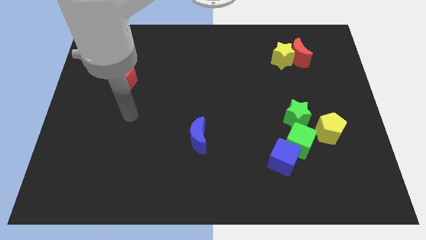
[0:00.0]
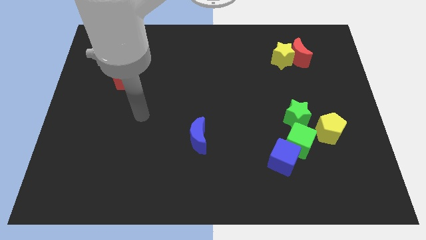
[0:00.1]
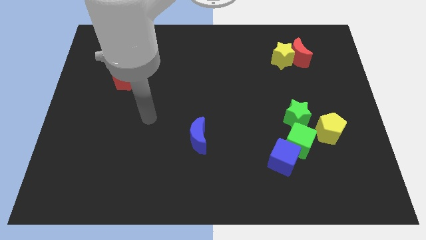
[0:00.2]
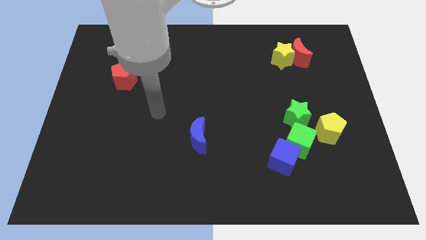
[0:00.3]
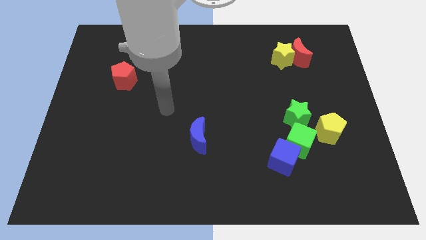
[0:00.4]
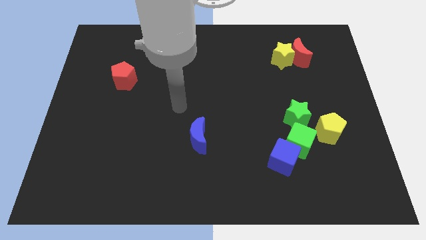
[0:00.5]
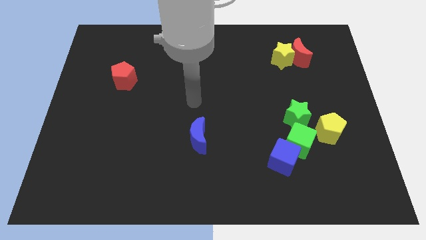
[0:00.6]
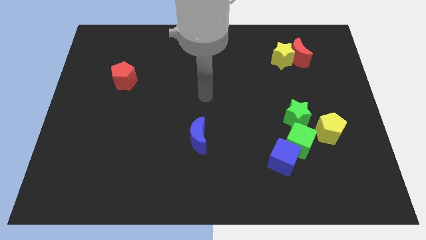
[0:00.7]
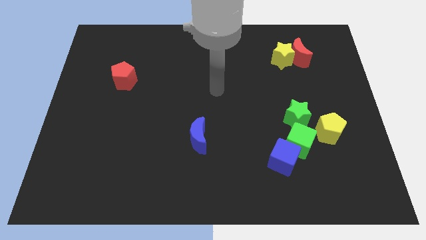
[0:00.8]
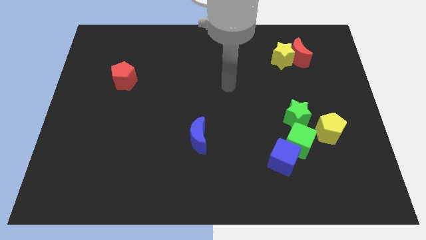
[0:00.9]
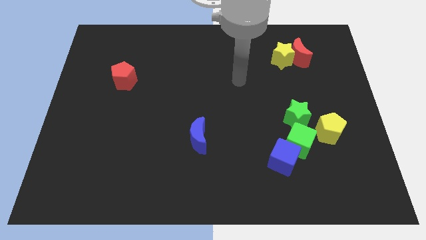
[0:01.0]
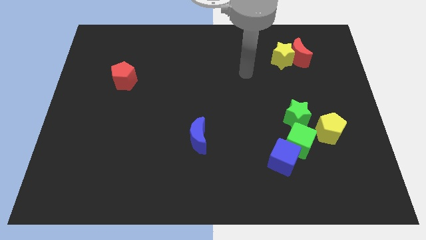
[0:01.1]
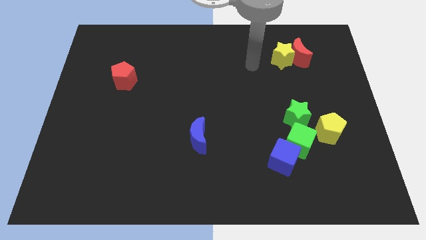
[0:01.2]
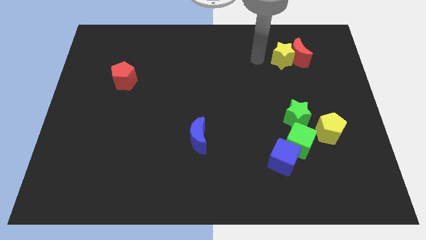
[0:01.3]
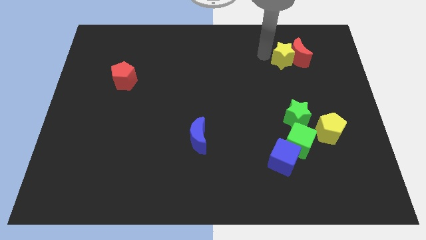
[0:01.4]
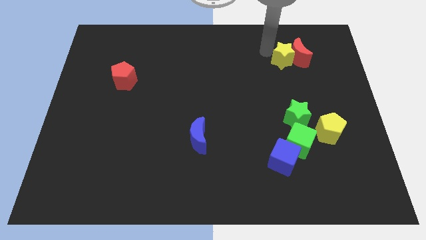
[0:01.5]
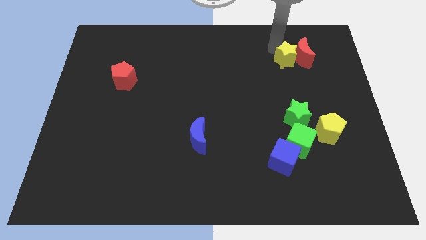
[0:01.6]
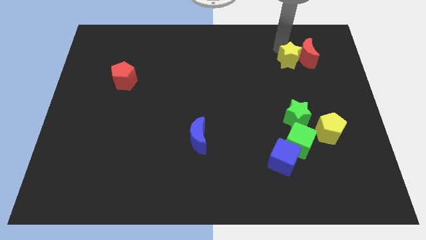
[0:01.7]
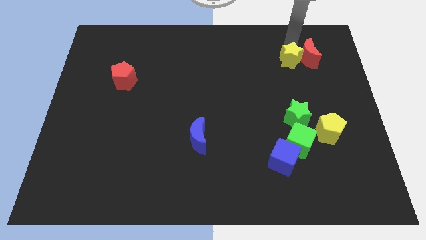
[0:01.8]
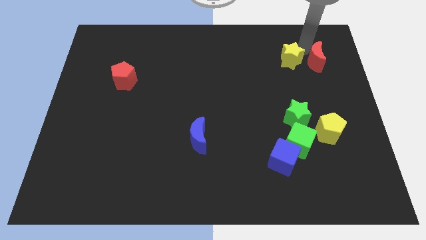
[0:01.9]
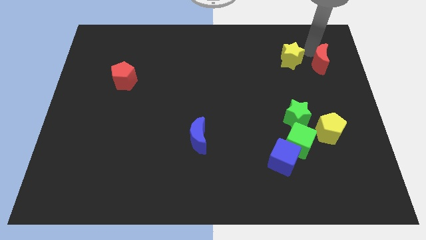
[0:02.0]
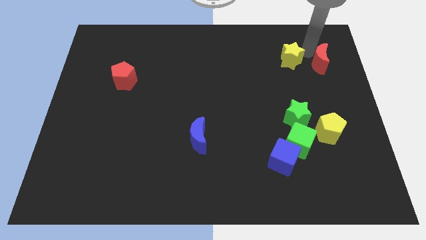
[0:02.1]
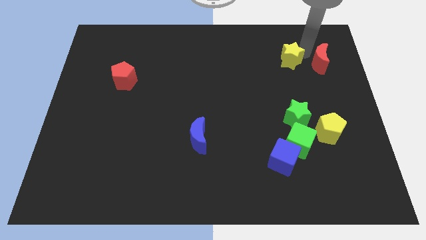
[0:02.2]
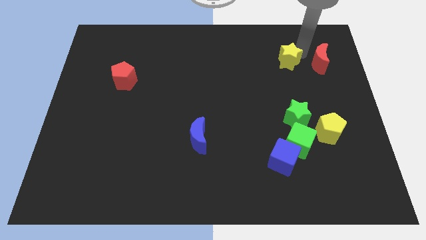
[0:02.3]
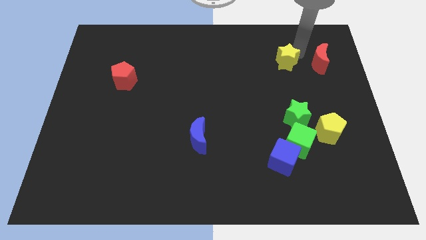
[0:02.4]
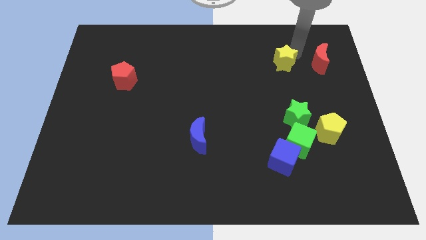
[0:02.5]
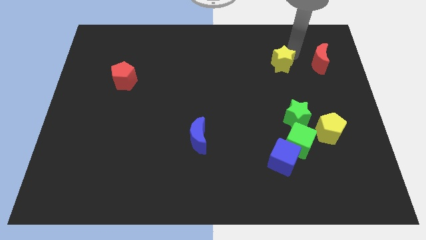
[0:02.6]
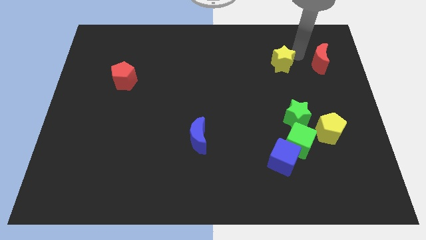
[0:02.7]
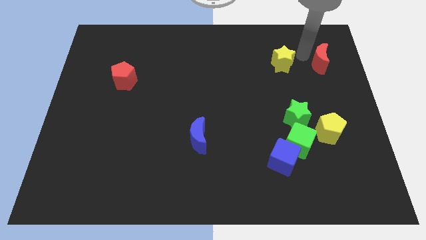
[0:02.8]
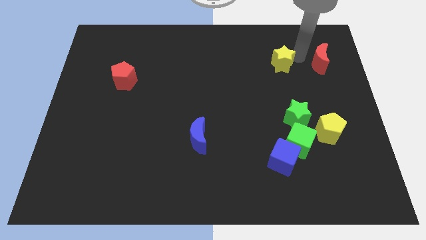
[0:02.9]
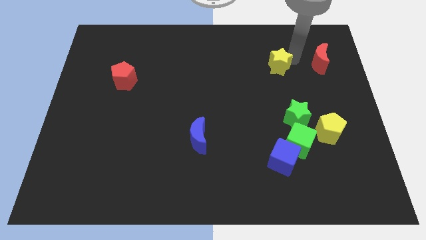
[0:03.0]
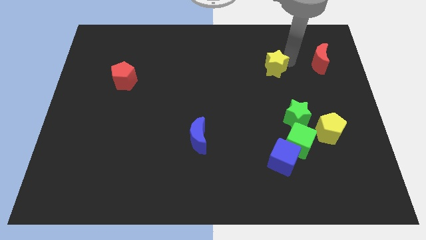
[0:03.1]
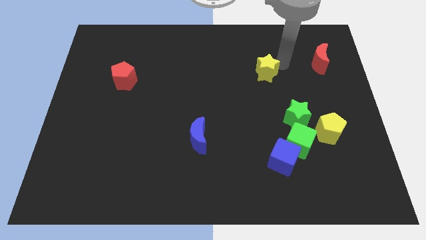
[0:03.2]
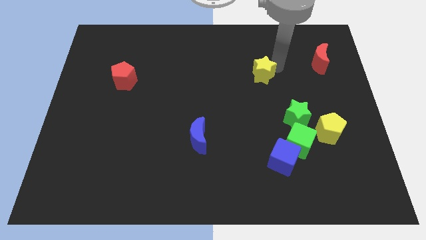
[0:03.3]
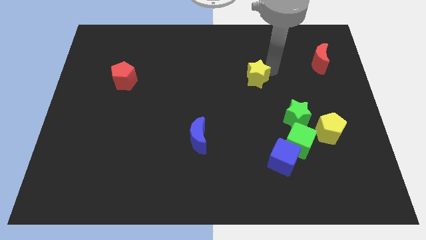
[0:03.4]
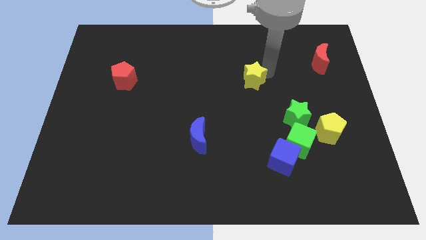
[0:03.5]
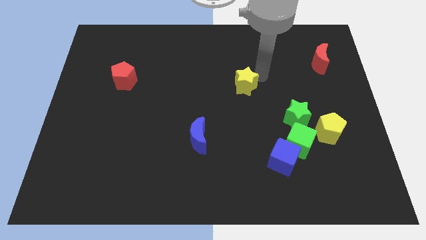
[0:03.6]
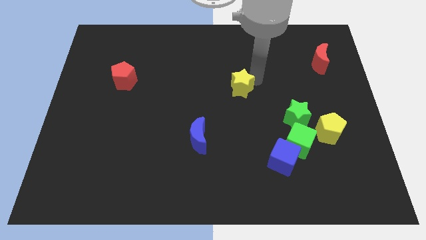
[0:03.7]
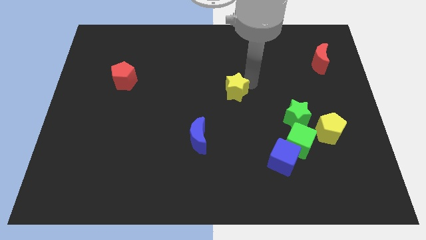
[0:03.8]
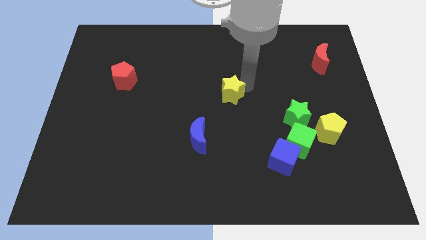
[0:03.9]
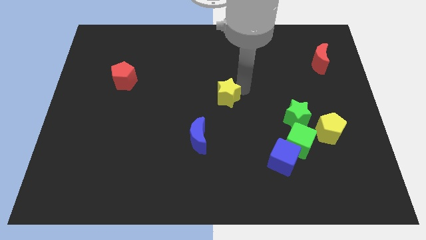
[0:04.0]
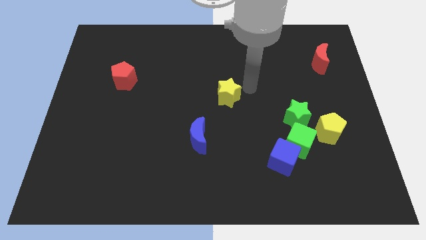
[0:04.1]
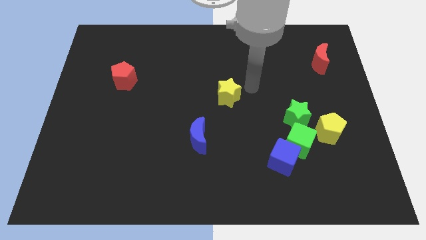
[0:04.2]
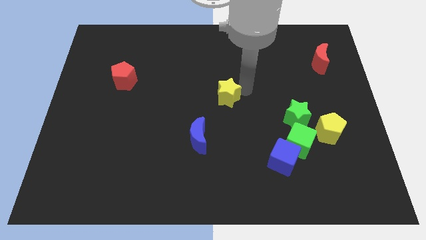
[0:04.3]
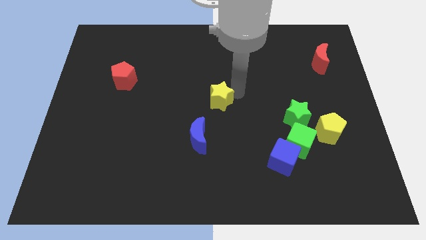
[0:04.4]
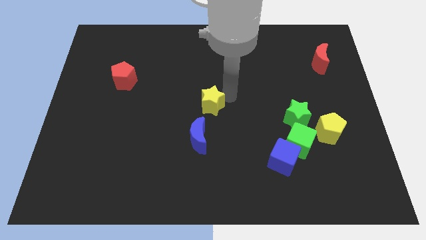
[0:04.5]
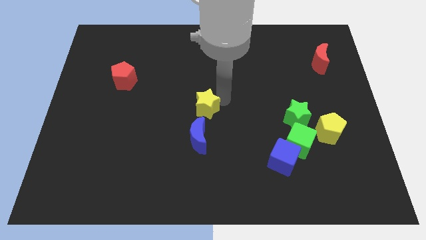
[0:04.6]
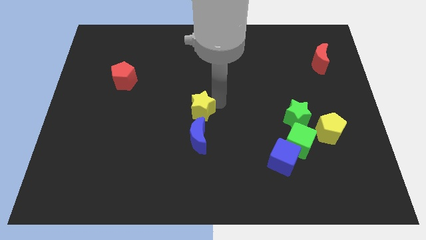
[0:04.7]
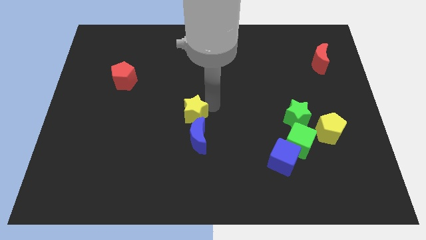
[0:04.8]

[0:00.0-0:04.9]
slide the yellow star to the top left side of the blue moon

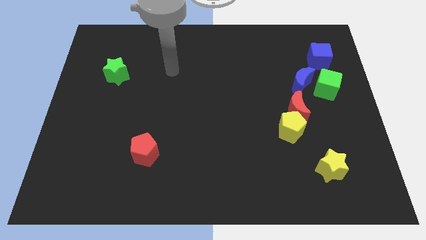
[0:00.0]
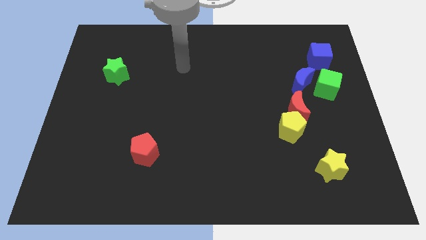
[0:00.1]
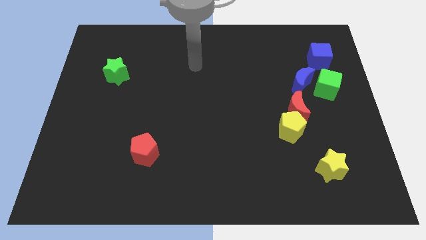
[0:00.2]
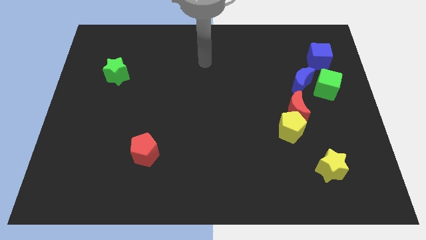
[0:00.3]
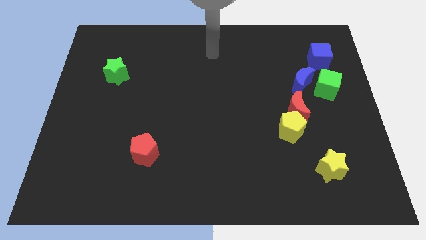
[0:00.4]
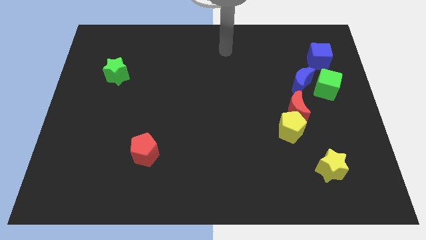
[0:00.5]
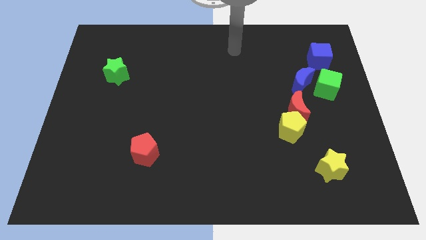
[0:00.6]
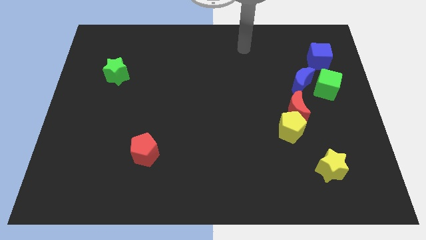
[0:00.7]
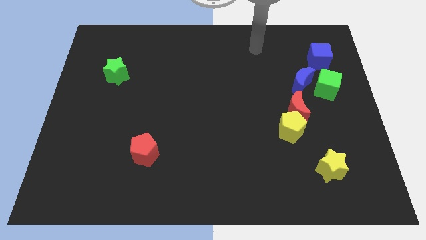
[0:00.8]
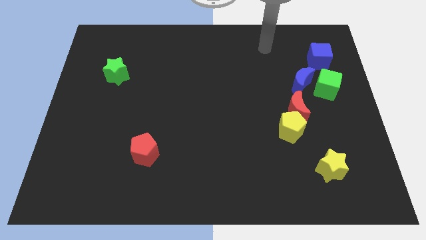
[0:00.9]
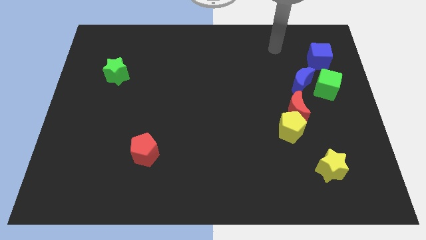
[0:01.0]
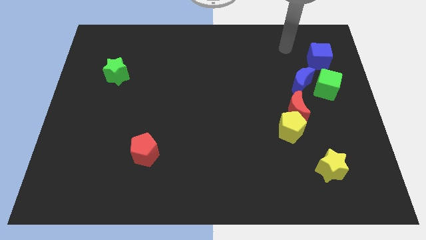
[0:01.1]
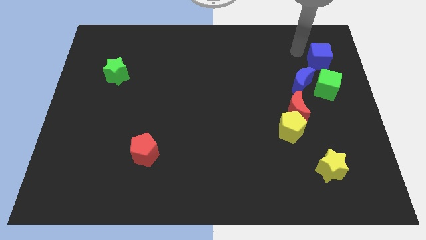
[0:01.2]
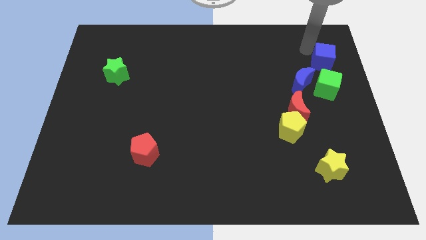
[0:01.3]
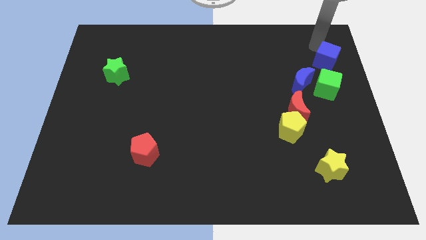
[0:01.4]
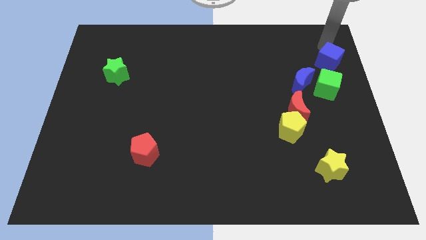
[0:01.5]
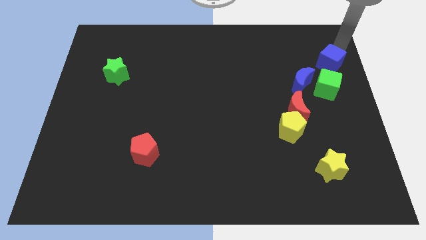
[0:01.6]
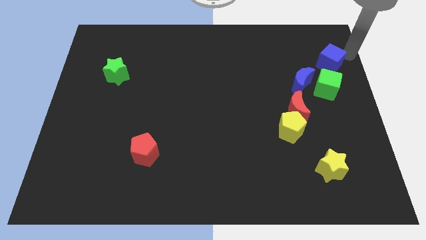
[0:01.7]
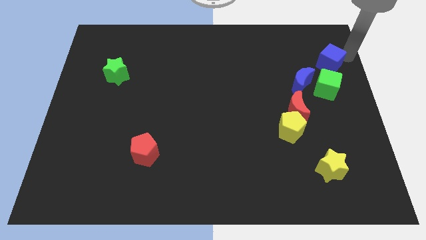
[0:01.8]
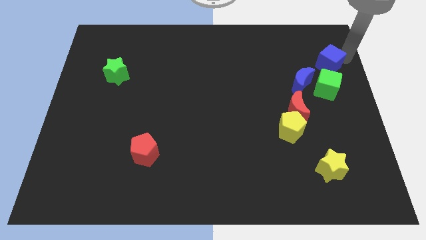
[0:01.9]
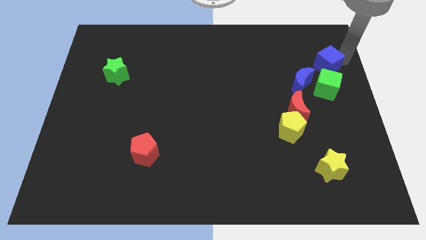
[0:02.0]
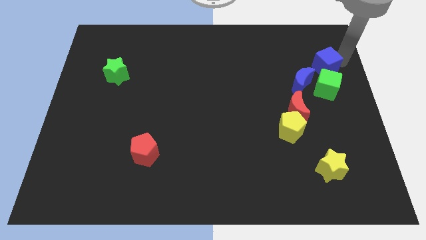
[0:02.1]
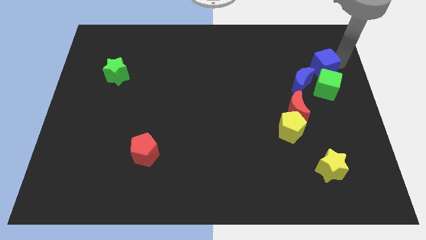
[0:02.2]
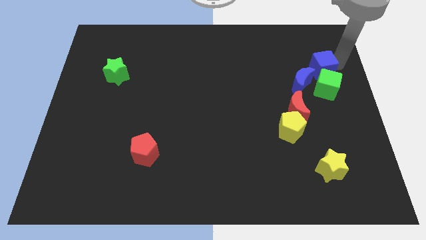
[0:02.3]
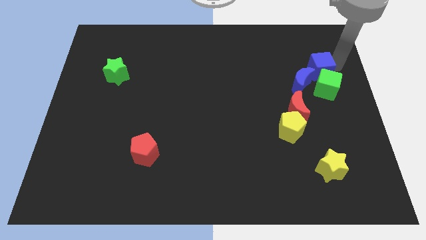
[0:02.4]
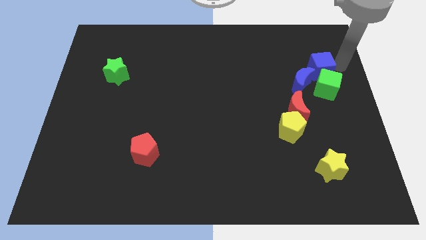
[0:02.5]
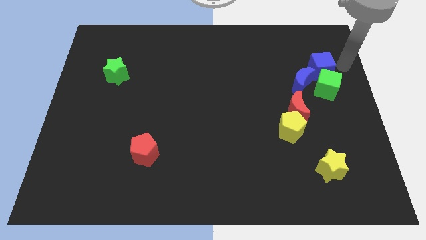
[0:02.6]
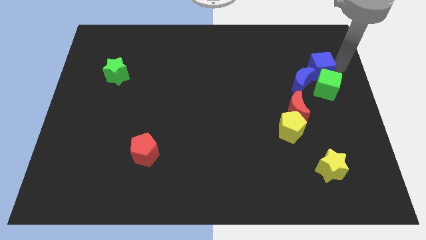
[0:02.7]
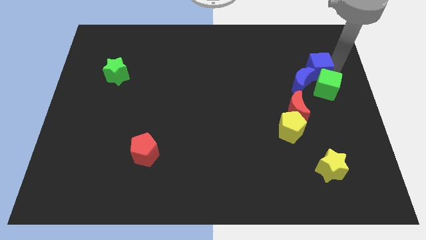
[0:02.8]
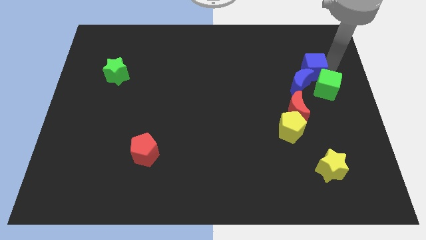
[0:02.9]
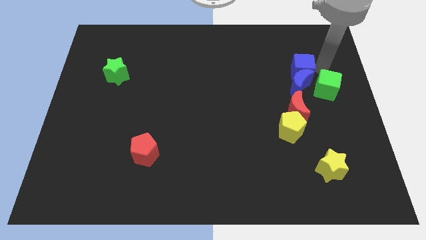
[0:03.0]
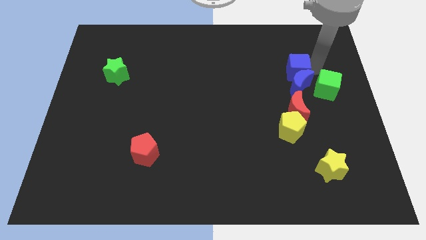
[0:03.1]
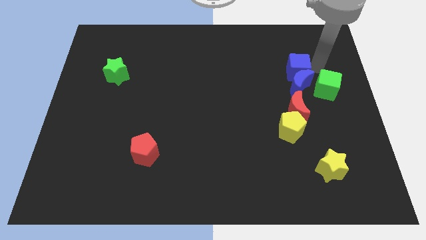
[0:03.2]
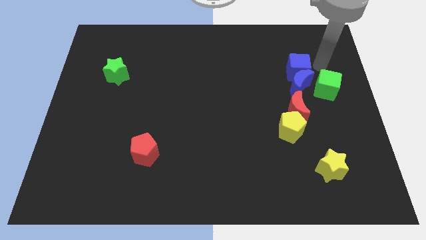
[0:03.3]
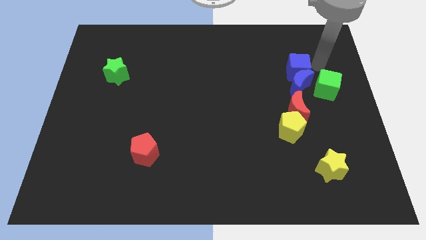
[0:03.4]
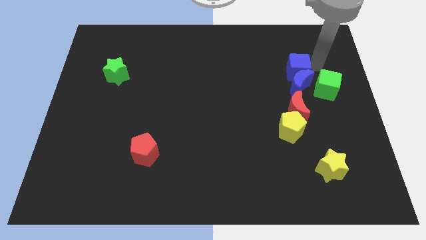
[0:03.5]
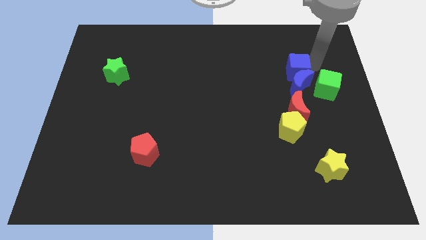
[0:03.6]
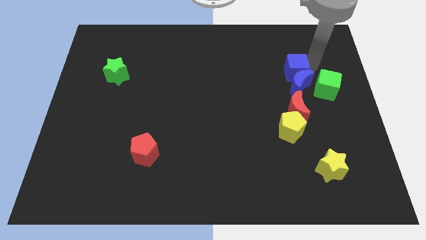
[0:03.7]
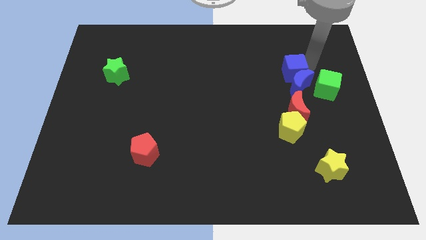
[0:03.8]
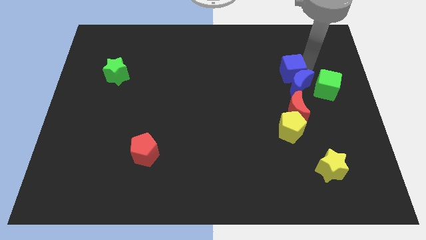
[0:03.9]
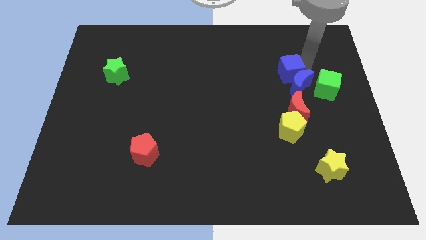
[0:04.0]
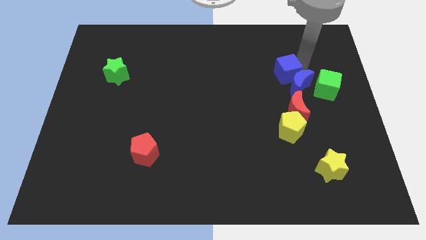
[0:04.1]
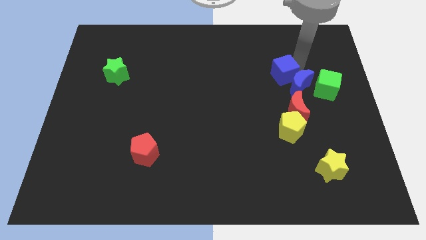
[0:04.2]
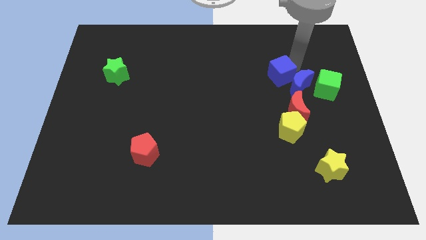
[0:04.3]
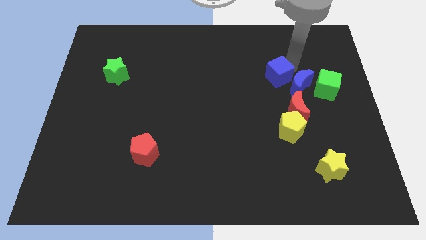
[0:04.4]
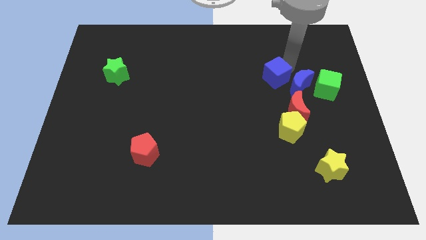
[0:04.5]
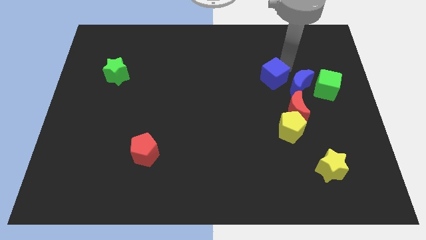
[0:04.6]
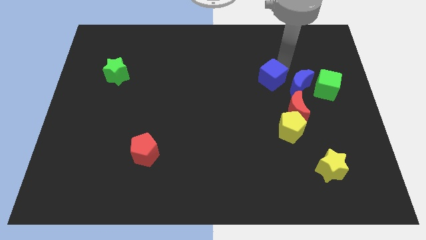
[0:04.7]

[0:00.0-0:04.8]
push the blue cube diagonally up and to the left of the red moon
